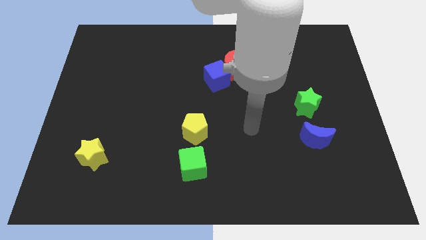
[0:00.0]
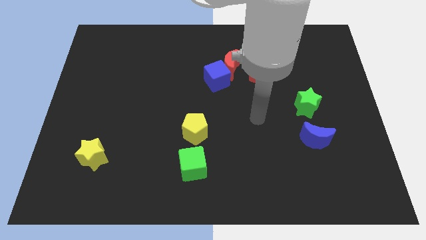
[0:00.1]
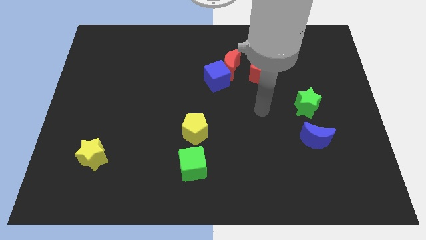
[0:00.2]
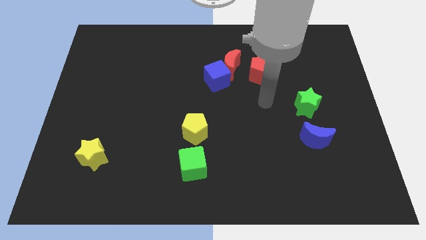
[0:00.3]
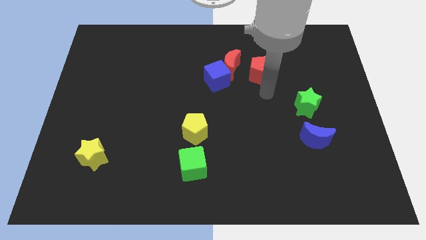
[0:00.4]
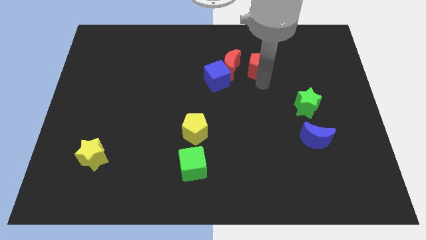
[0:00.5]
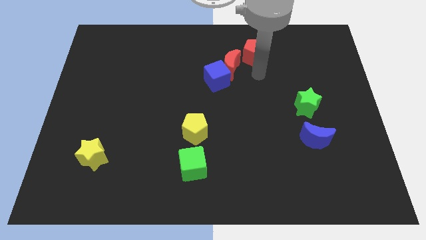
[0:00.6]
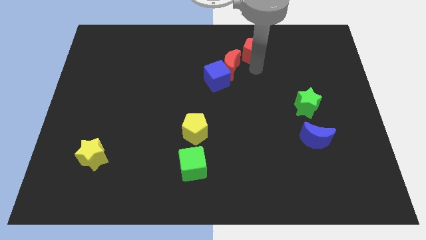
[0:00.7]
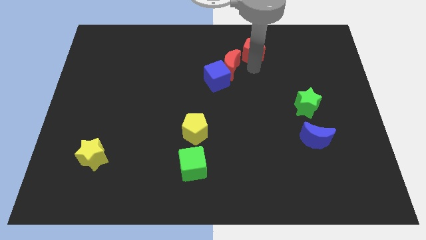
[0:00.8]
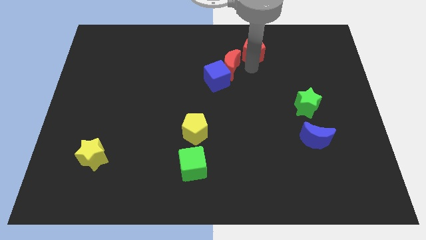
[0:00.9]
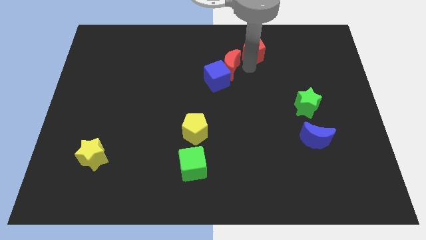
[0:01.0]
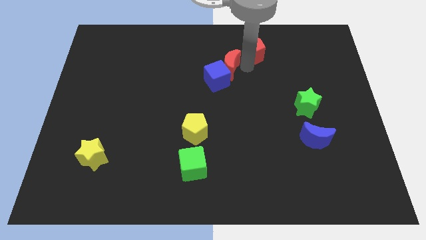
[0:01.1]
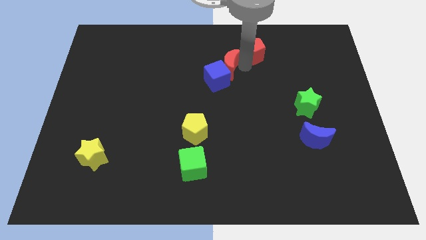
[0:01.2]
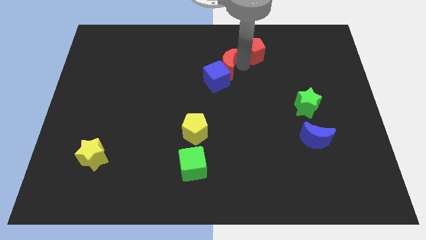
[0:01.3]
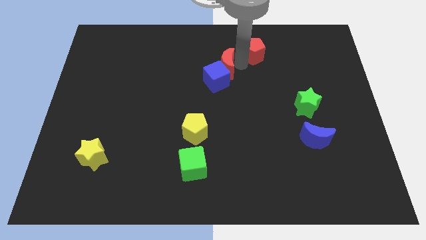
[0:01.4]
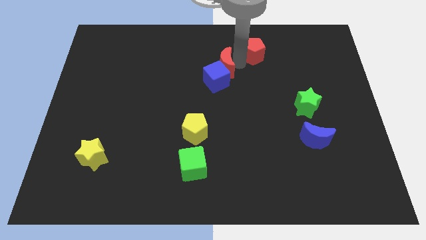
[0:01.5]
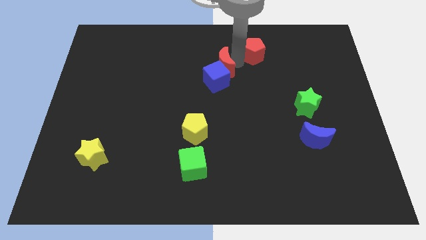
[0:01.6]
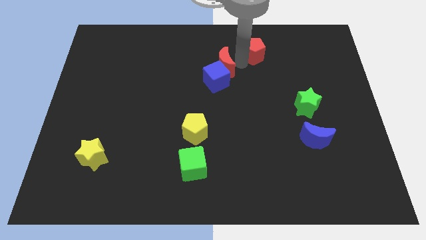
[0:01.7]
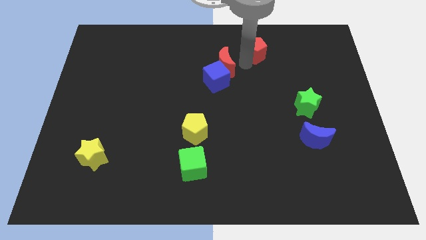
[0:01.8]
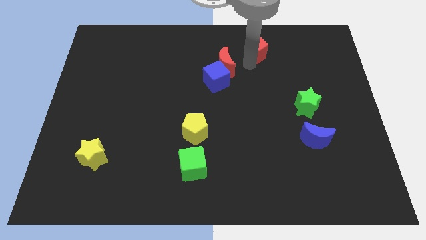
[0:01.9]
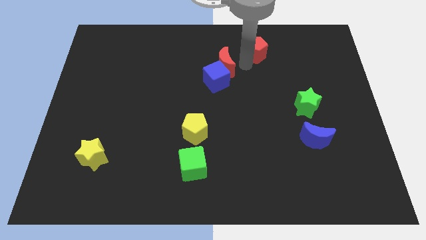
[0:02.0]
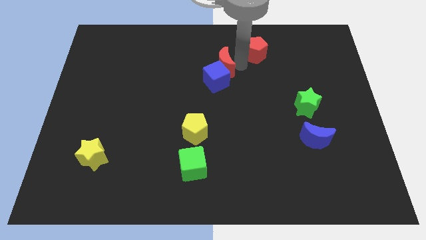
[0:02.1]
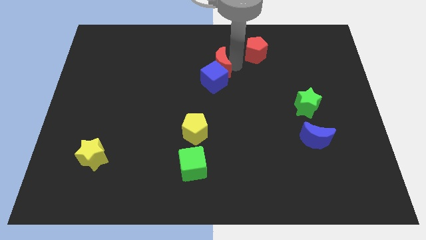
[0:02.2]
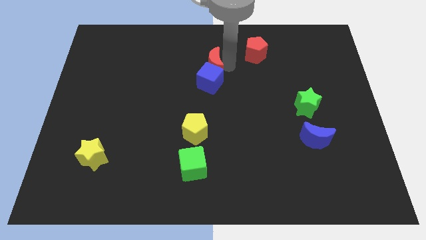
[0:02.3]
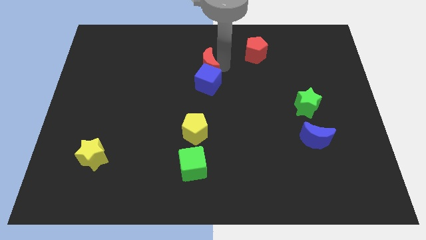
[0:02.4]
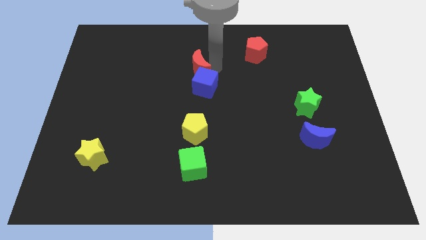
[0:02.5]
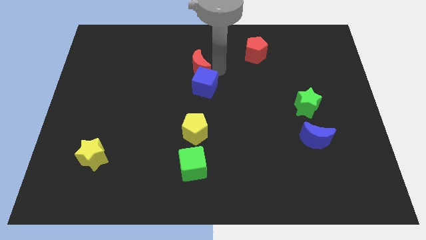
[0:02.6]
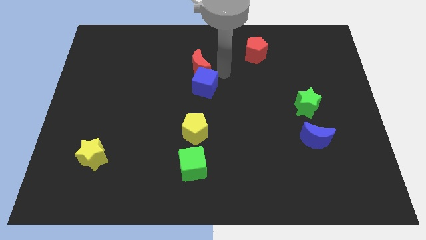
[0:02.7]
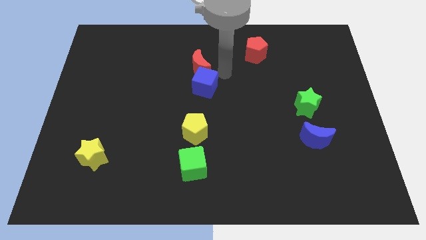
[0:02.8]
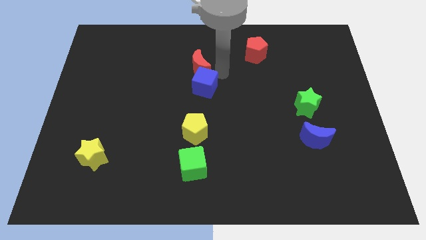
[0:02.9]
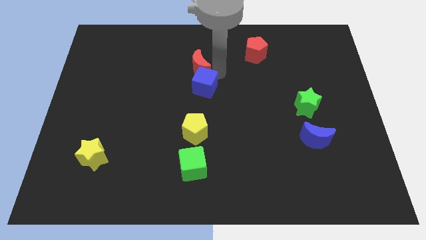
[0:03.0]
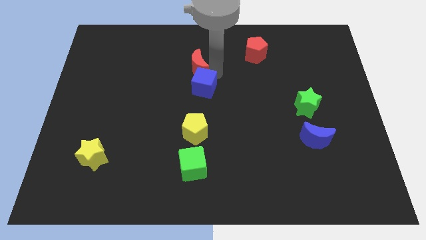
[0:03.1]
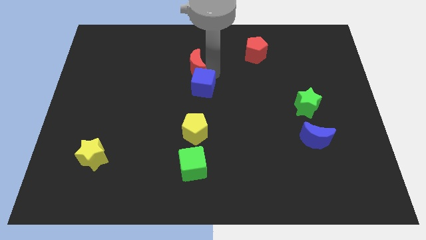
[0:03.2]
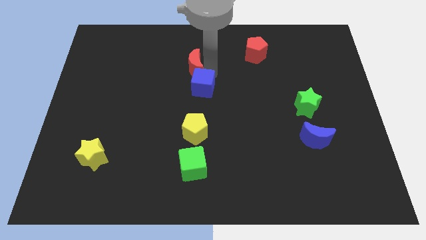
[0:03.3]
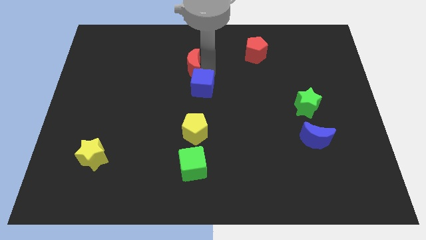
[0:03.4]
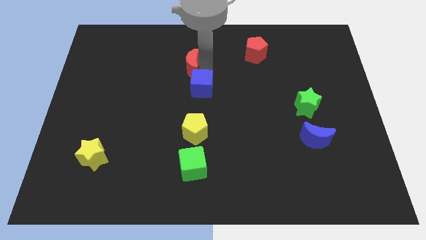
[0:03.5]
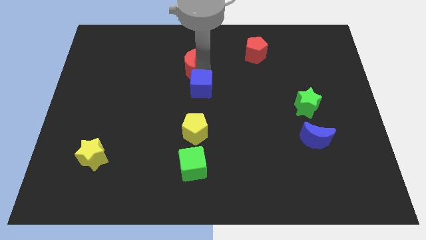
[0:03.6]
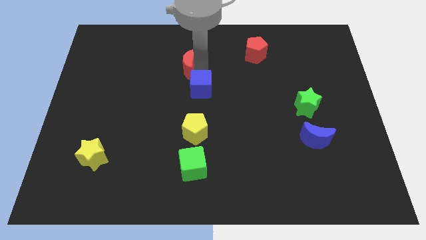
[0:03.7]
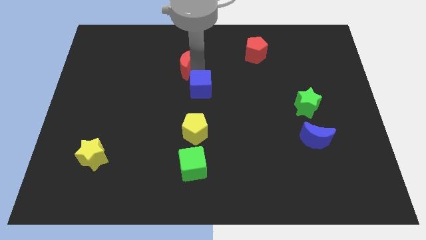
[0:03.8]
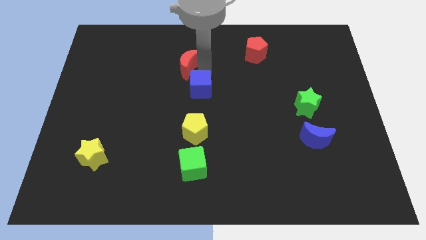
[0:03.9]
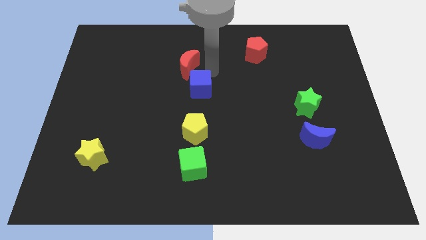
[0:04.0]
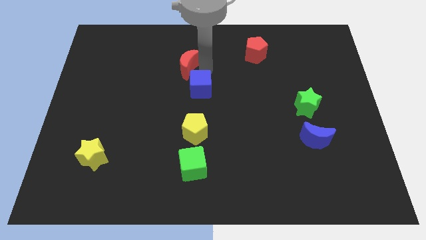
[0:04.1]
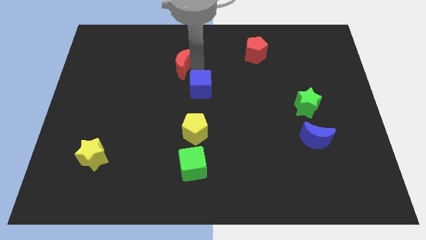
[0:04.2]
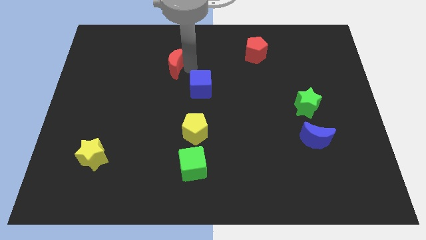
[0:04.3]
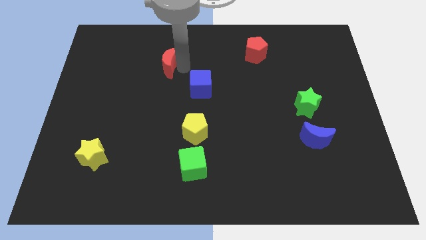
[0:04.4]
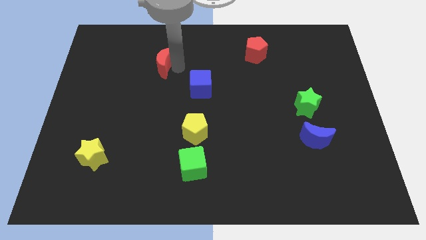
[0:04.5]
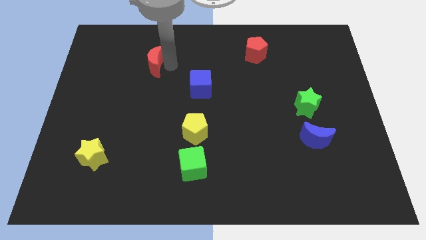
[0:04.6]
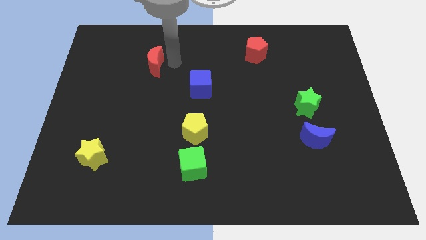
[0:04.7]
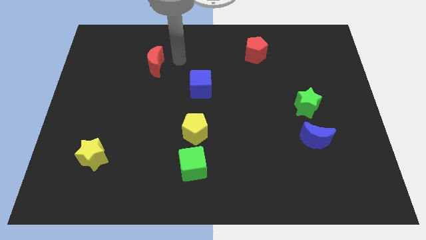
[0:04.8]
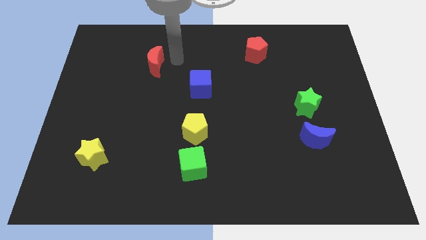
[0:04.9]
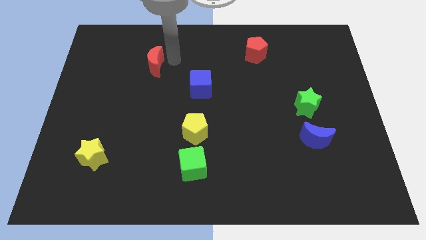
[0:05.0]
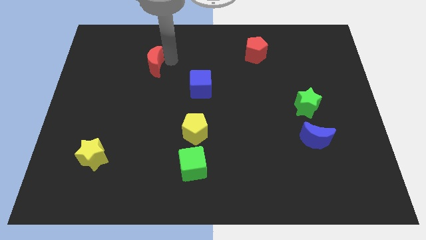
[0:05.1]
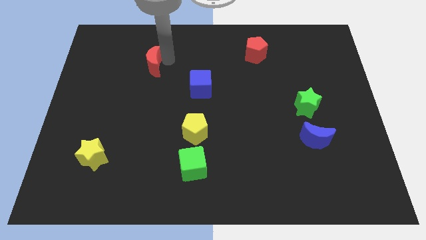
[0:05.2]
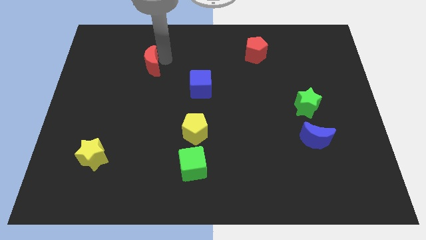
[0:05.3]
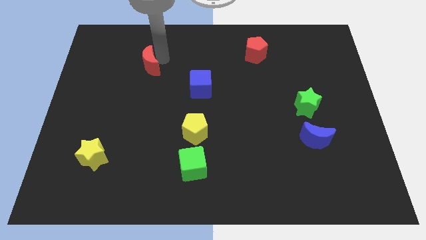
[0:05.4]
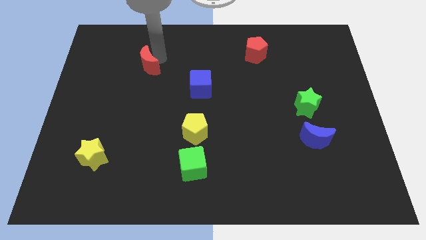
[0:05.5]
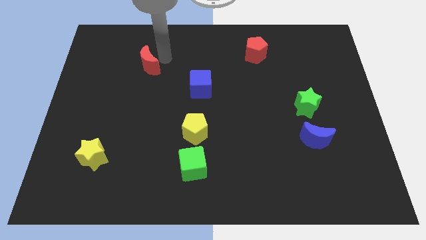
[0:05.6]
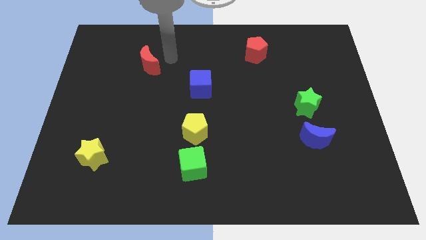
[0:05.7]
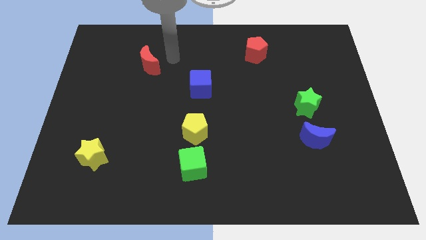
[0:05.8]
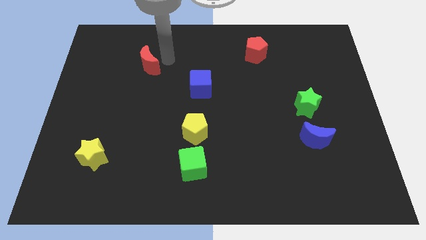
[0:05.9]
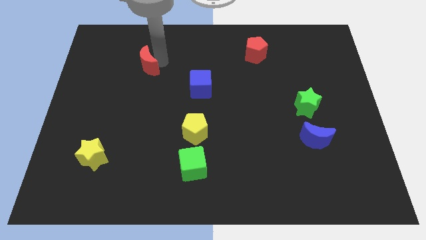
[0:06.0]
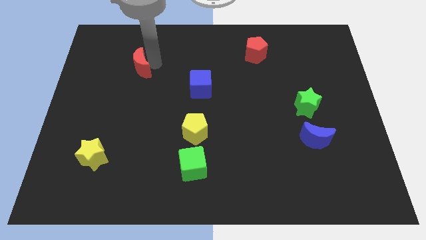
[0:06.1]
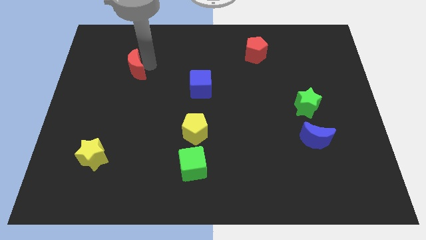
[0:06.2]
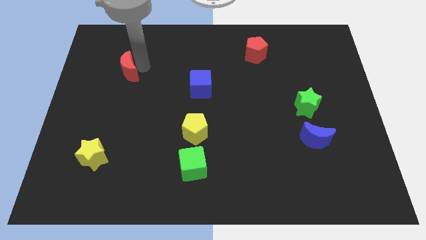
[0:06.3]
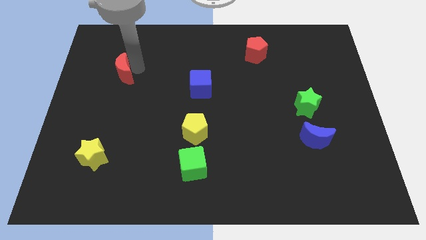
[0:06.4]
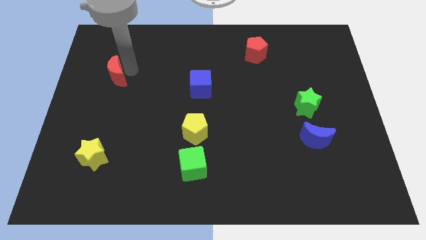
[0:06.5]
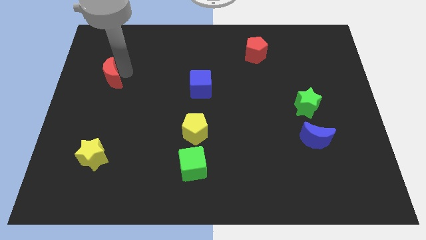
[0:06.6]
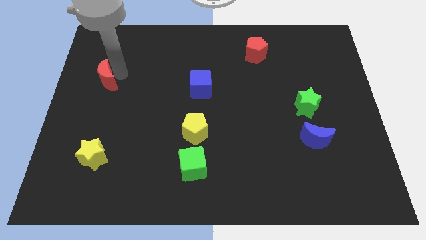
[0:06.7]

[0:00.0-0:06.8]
put the red moon to the center left
